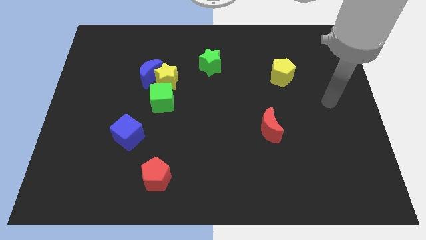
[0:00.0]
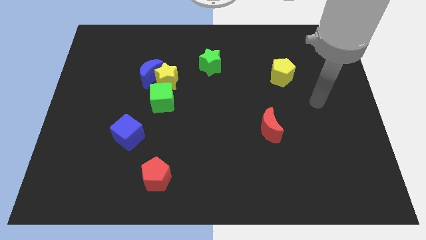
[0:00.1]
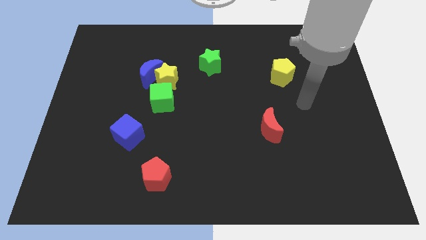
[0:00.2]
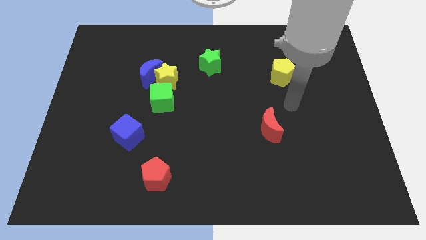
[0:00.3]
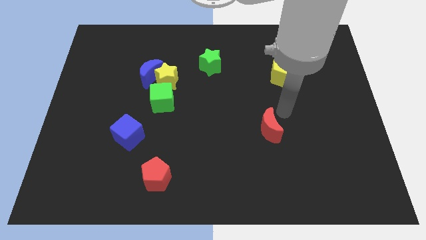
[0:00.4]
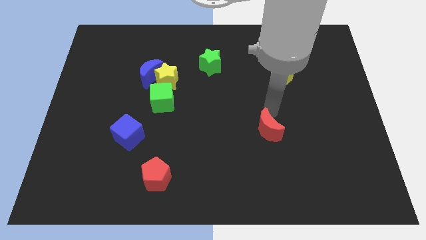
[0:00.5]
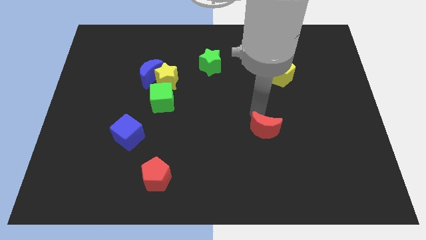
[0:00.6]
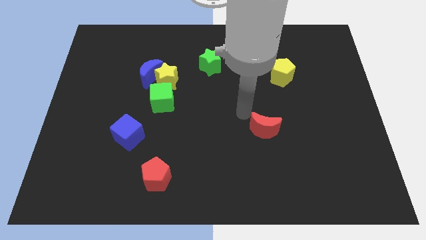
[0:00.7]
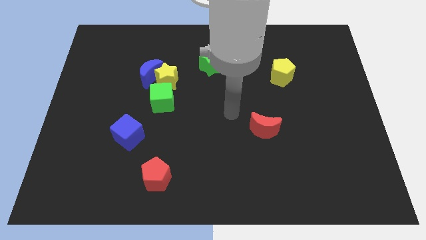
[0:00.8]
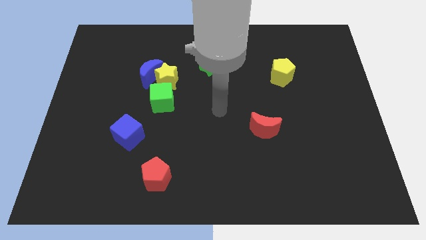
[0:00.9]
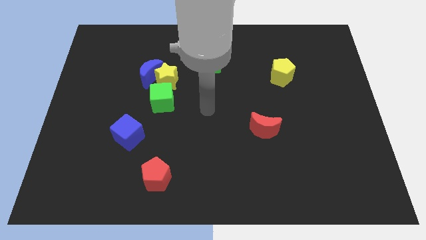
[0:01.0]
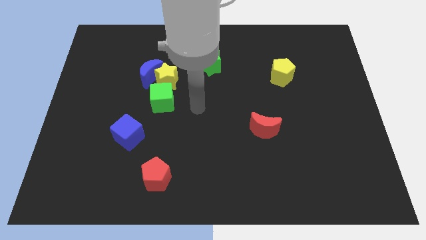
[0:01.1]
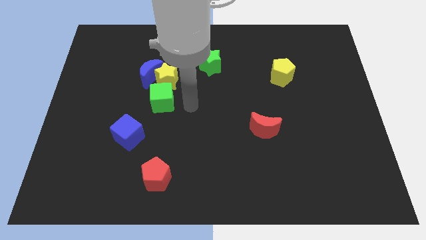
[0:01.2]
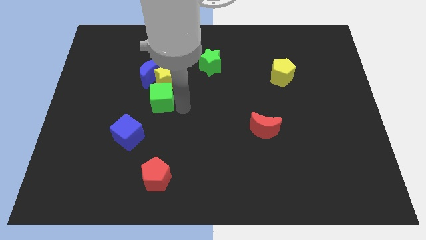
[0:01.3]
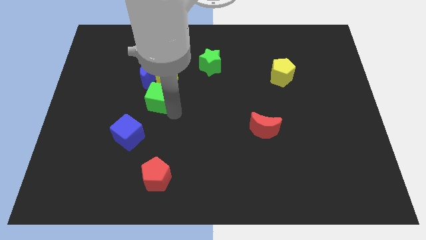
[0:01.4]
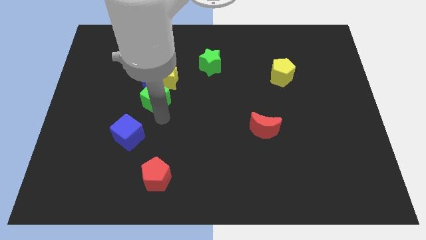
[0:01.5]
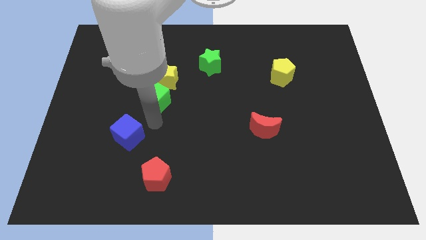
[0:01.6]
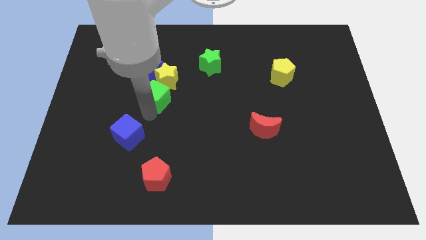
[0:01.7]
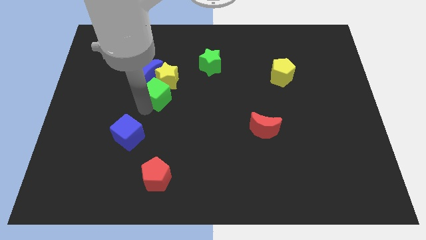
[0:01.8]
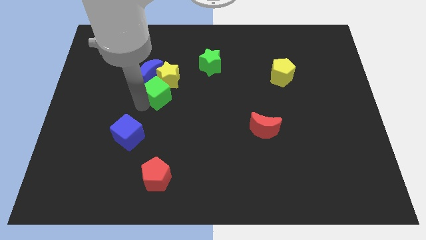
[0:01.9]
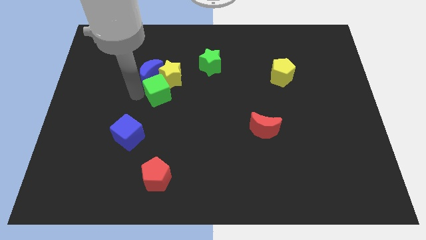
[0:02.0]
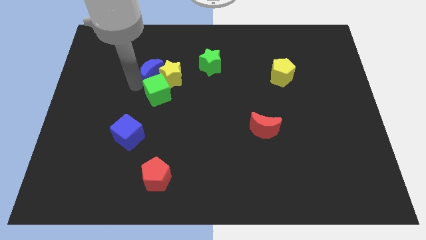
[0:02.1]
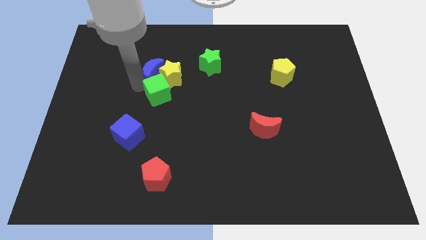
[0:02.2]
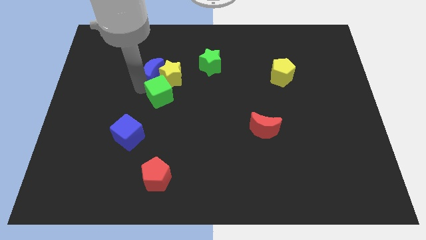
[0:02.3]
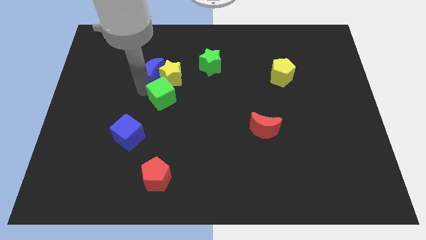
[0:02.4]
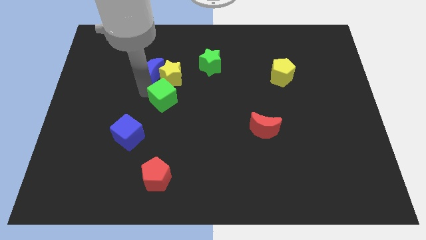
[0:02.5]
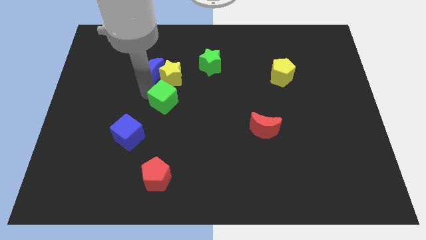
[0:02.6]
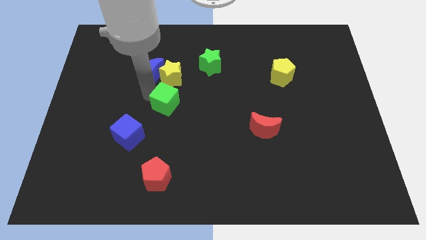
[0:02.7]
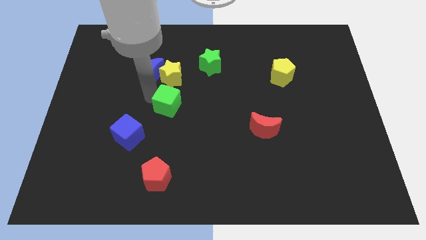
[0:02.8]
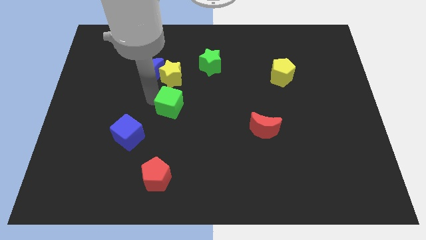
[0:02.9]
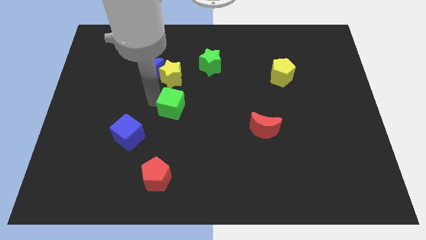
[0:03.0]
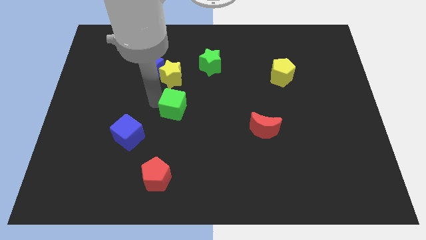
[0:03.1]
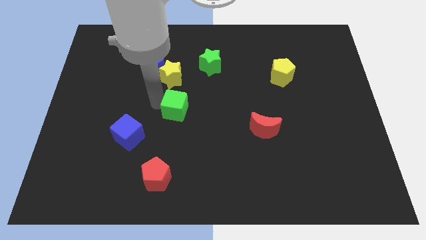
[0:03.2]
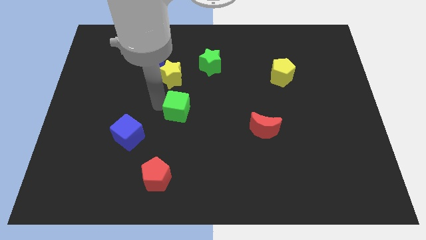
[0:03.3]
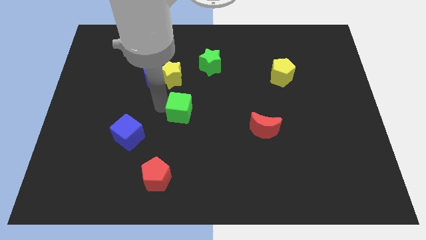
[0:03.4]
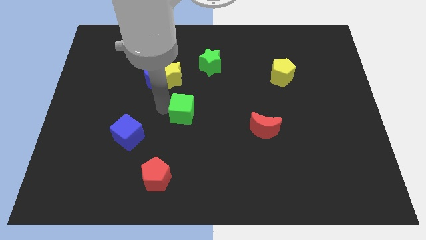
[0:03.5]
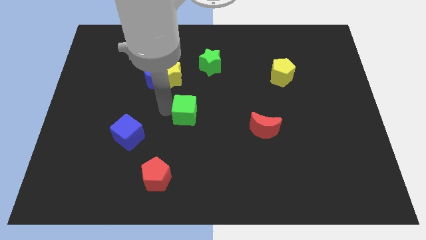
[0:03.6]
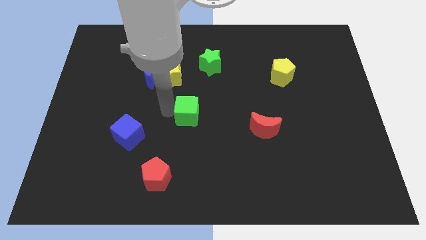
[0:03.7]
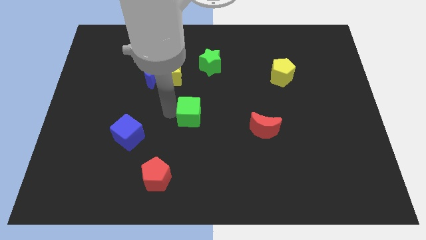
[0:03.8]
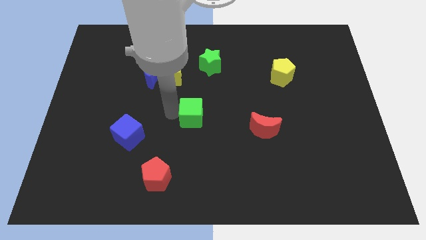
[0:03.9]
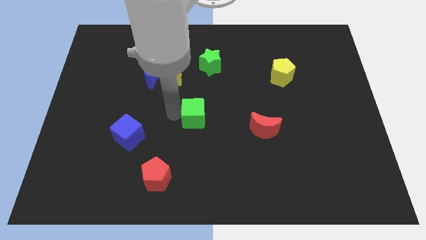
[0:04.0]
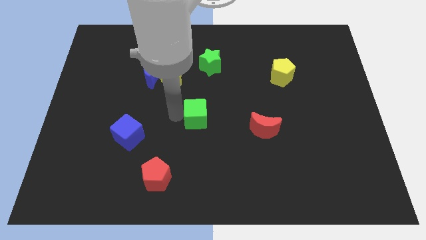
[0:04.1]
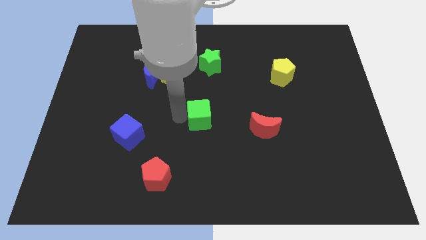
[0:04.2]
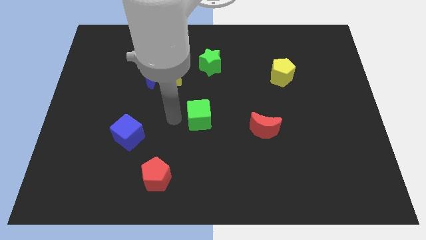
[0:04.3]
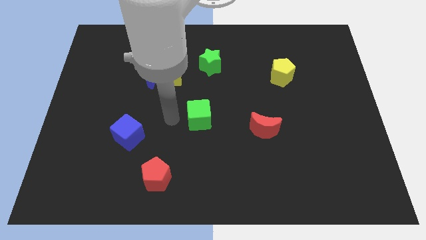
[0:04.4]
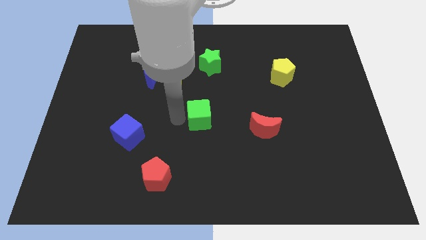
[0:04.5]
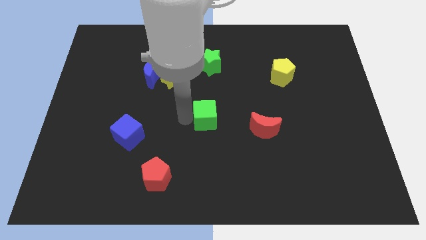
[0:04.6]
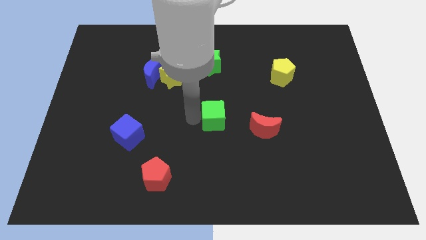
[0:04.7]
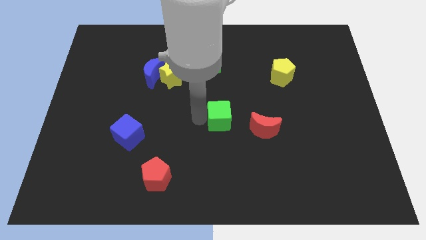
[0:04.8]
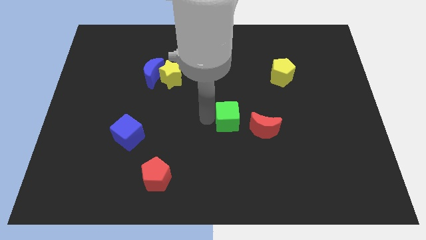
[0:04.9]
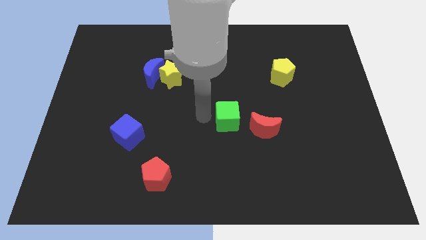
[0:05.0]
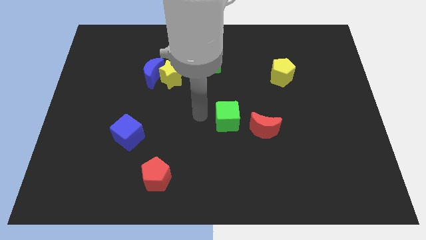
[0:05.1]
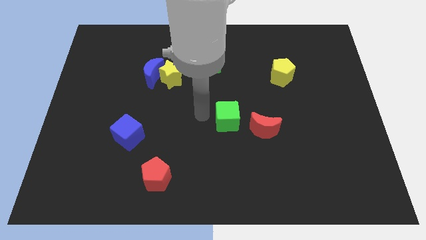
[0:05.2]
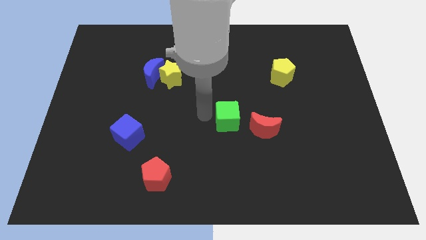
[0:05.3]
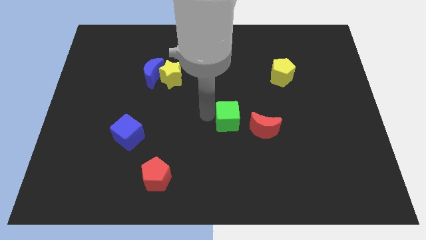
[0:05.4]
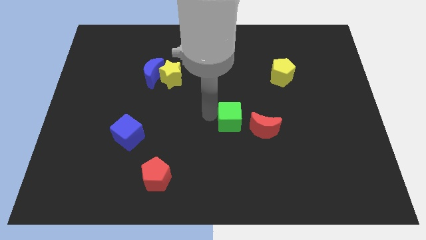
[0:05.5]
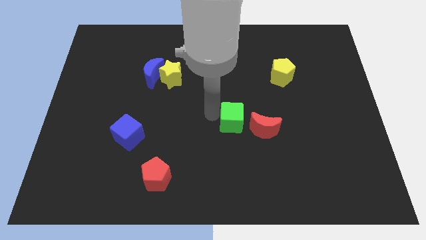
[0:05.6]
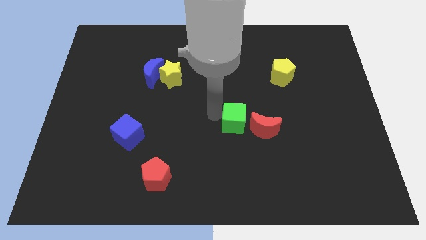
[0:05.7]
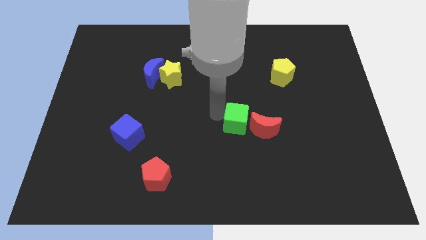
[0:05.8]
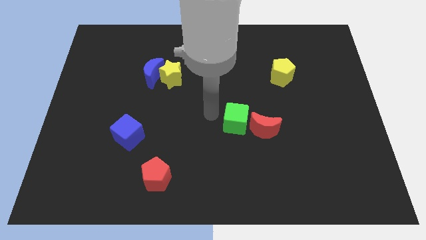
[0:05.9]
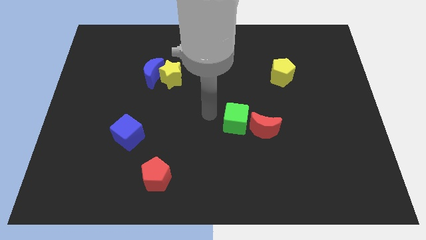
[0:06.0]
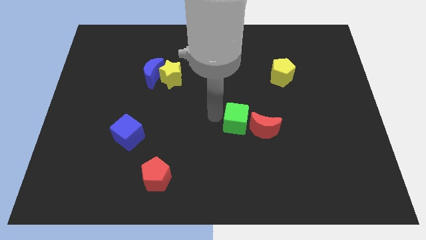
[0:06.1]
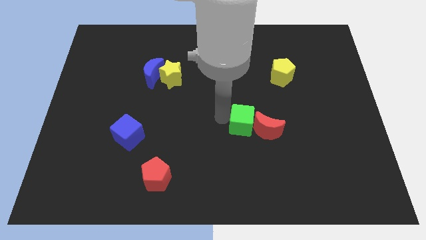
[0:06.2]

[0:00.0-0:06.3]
push the green cube to the red moon
